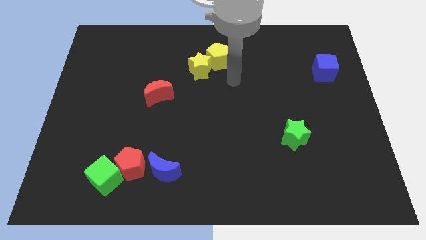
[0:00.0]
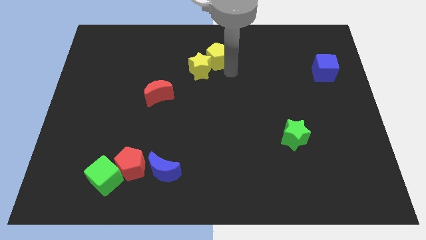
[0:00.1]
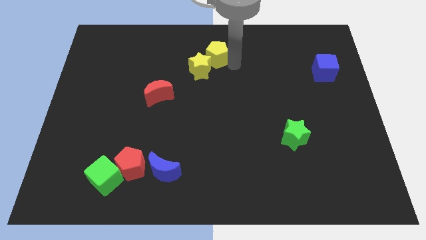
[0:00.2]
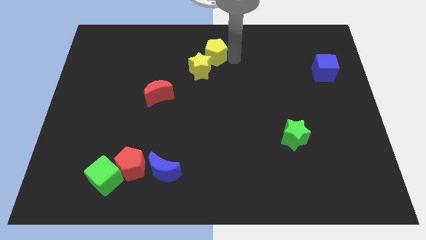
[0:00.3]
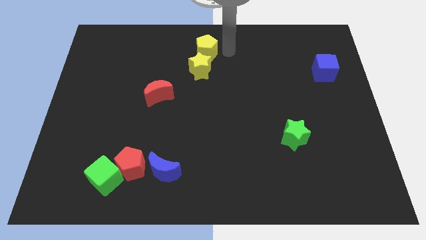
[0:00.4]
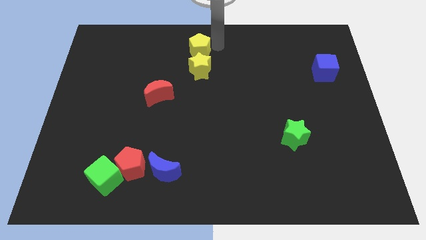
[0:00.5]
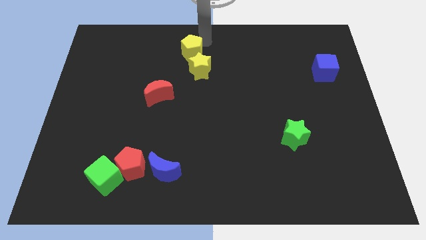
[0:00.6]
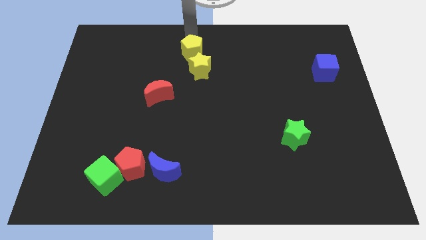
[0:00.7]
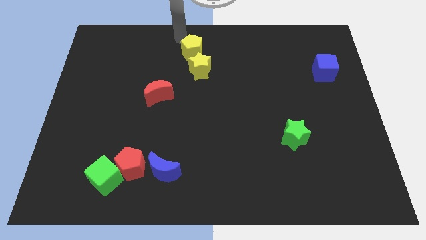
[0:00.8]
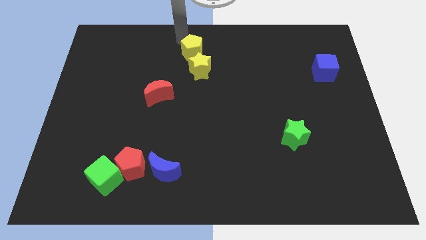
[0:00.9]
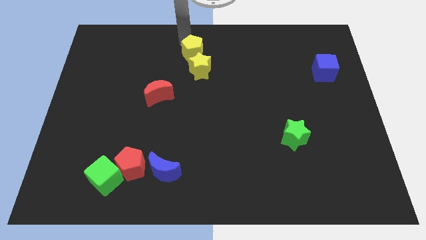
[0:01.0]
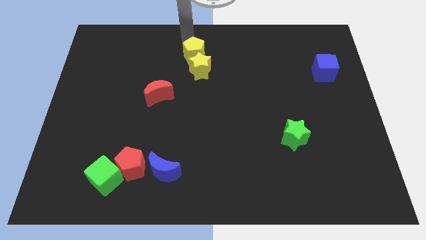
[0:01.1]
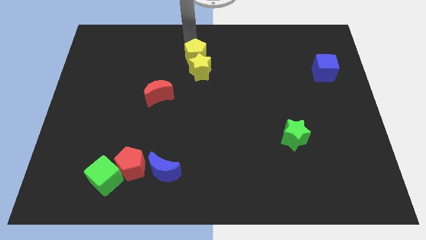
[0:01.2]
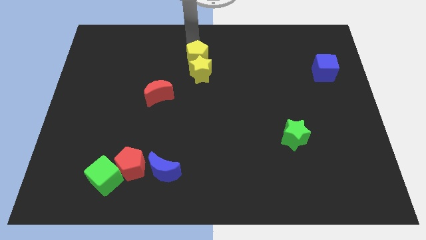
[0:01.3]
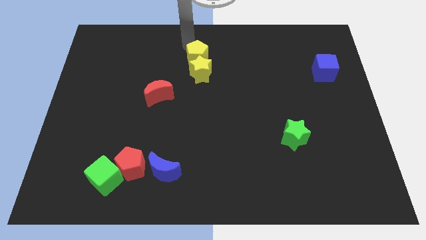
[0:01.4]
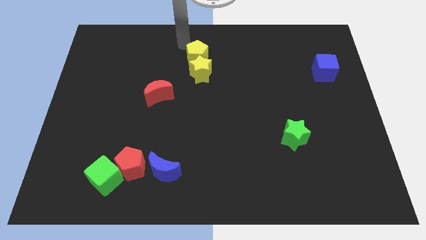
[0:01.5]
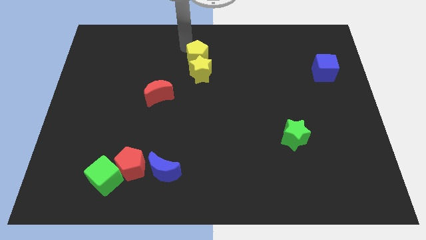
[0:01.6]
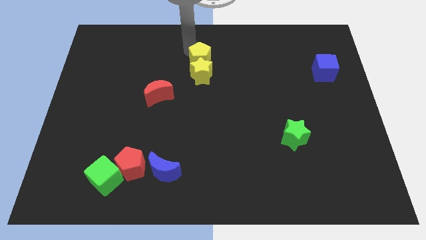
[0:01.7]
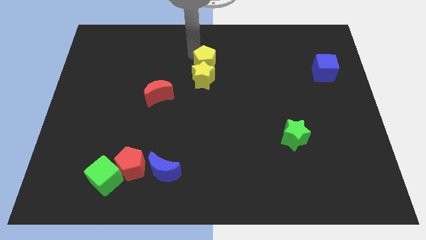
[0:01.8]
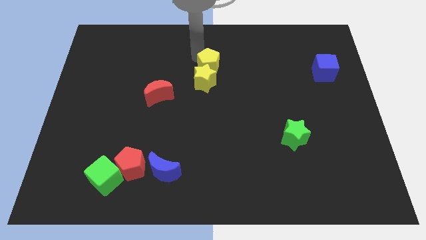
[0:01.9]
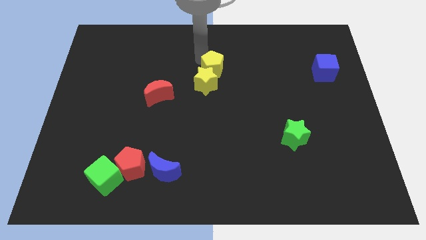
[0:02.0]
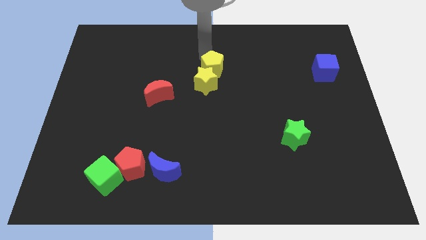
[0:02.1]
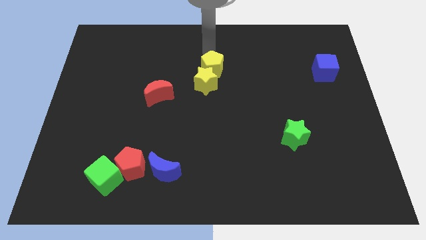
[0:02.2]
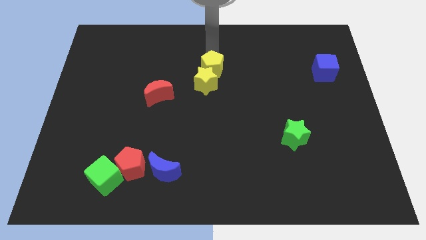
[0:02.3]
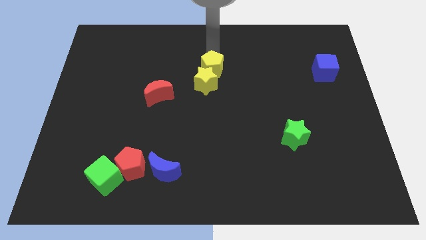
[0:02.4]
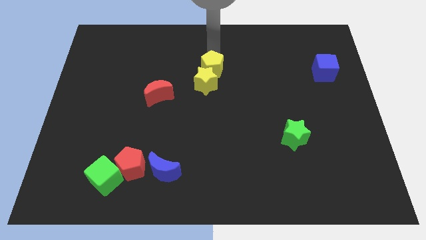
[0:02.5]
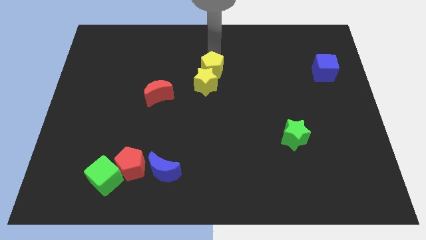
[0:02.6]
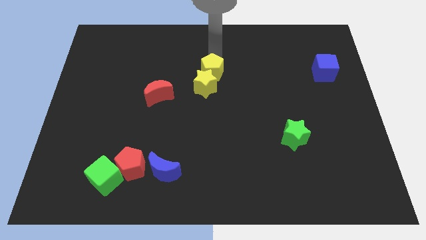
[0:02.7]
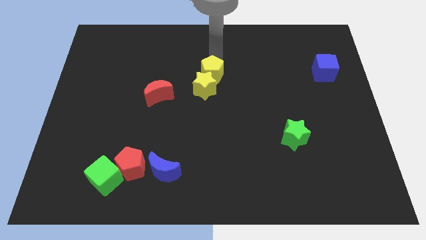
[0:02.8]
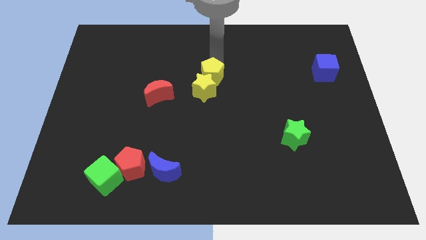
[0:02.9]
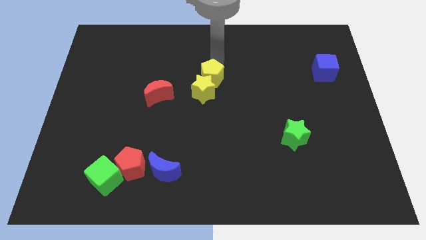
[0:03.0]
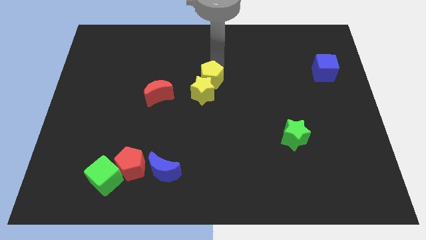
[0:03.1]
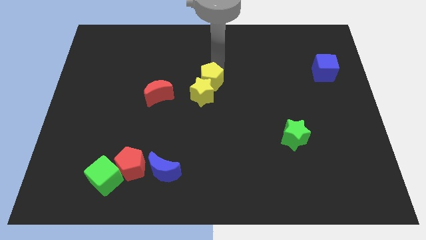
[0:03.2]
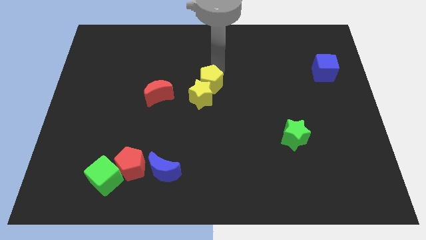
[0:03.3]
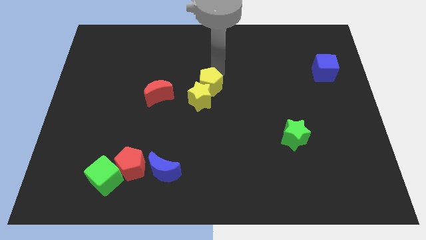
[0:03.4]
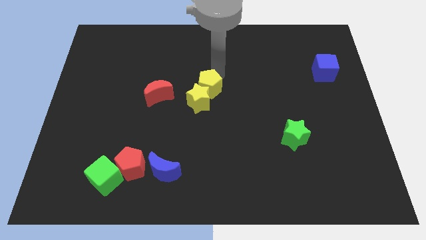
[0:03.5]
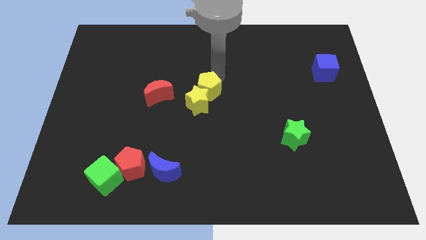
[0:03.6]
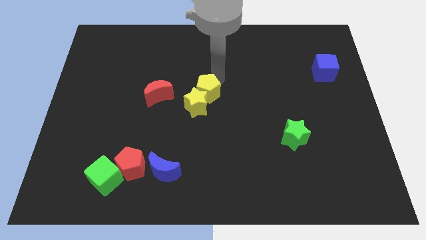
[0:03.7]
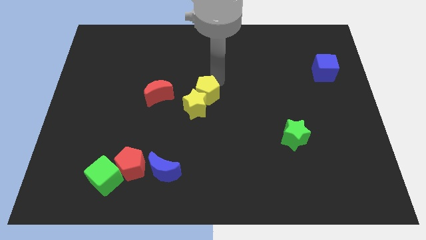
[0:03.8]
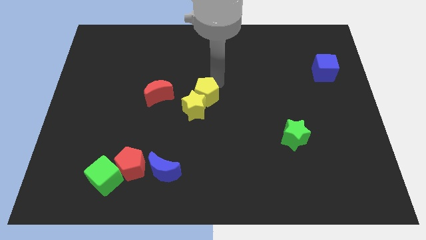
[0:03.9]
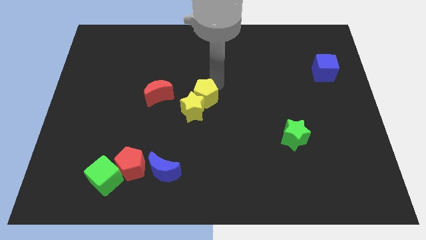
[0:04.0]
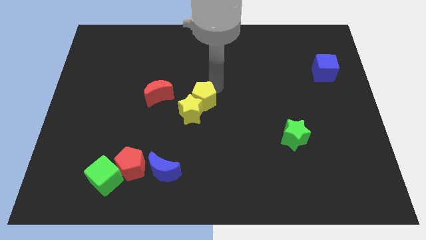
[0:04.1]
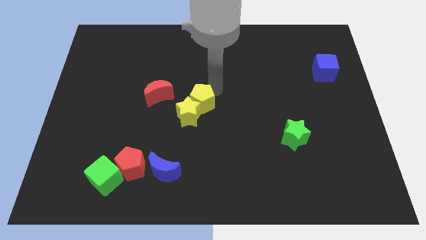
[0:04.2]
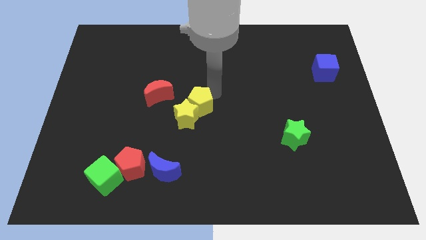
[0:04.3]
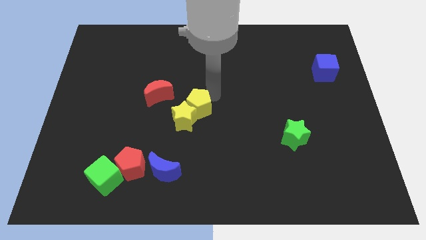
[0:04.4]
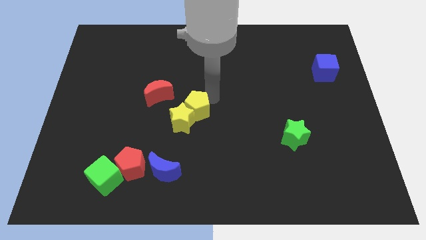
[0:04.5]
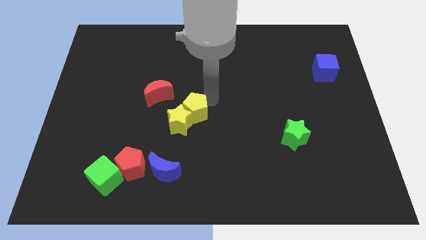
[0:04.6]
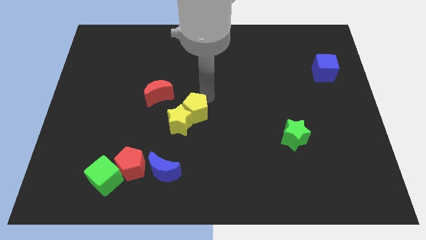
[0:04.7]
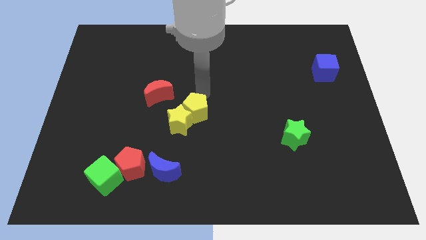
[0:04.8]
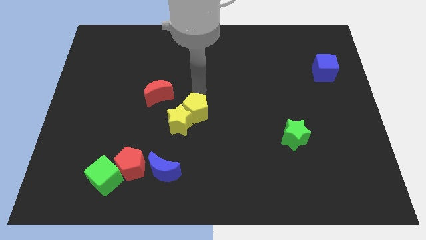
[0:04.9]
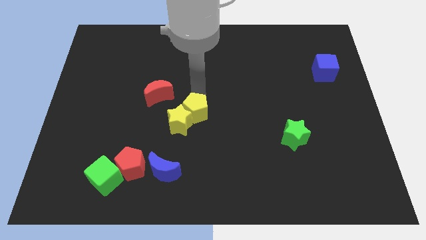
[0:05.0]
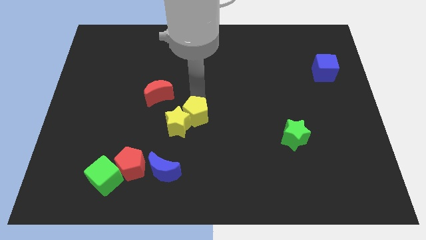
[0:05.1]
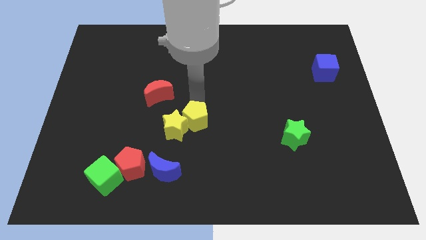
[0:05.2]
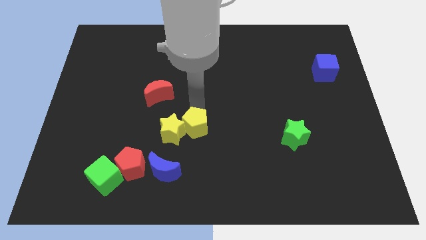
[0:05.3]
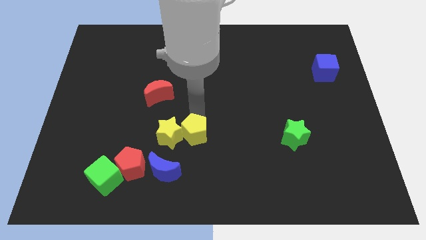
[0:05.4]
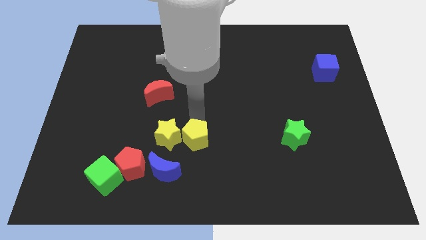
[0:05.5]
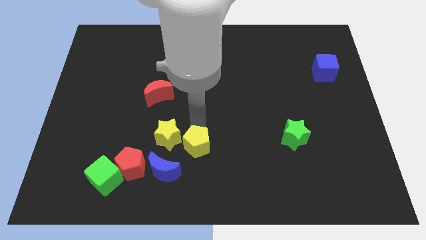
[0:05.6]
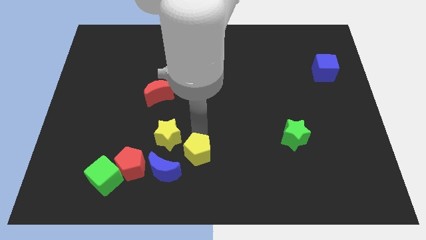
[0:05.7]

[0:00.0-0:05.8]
put the yellow pentagon right of the red pentagon

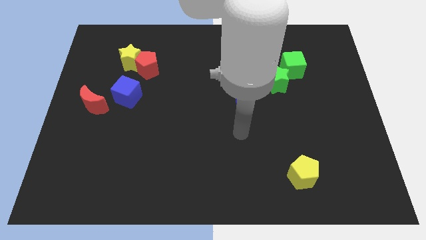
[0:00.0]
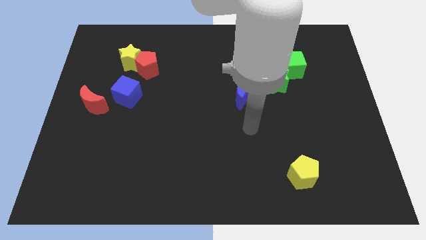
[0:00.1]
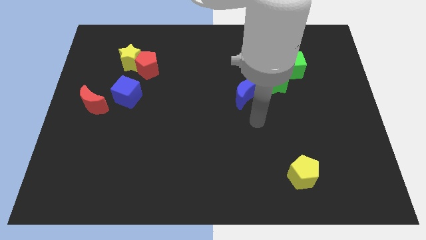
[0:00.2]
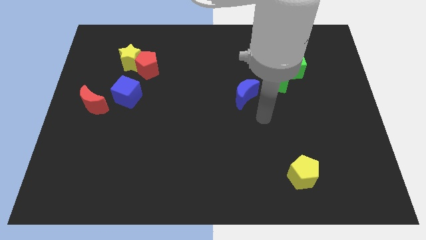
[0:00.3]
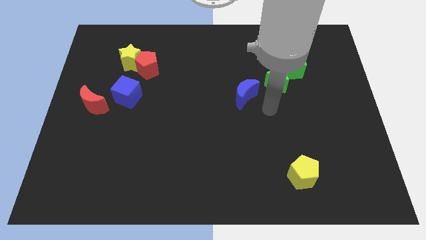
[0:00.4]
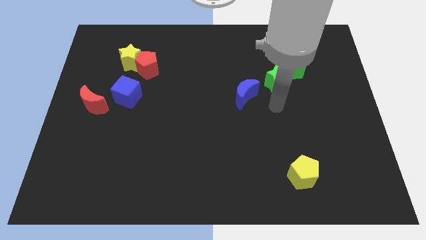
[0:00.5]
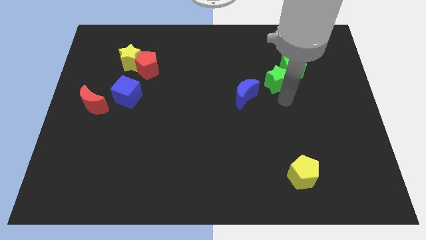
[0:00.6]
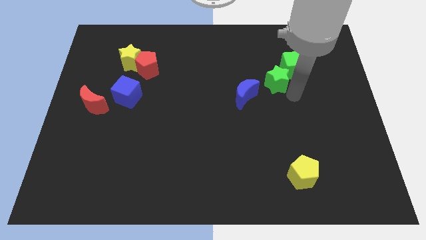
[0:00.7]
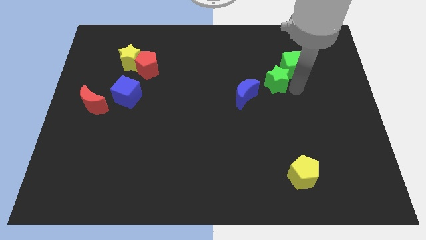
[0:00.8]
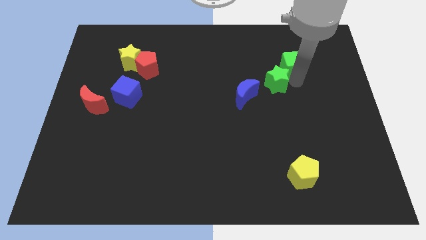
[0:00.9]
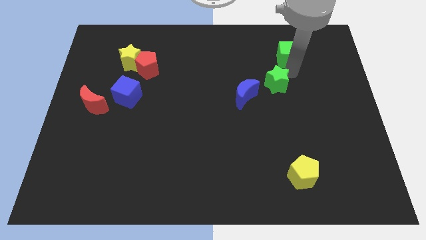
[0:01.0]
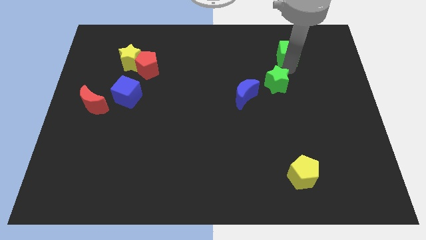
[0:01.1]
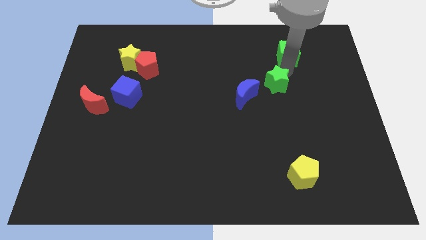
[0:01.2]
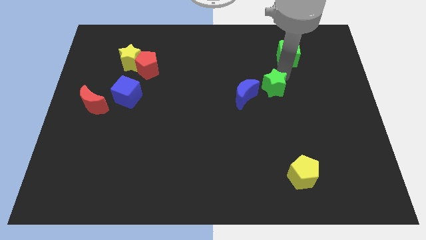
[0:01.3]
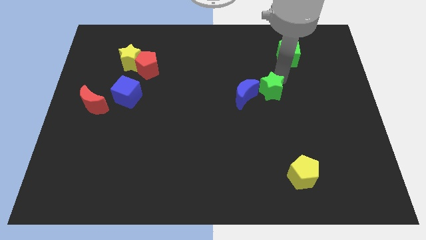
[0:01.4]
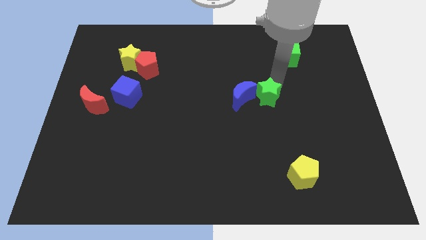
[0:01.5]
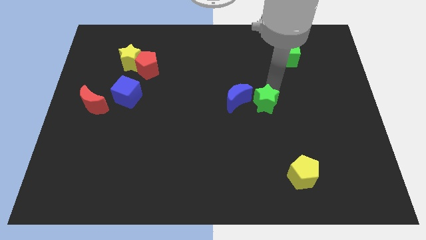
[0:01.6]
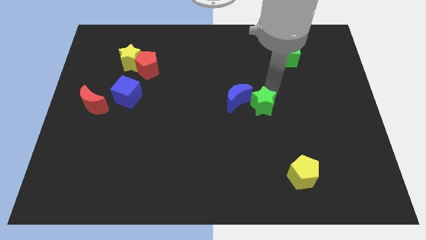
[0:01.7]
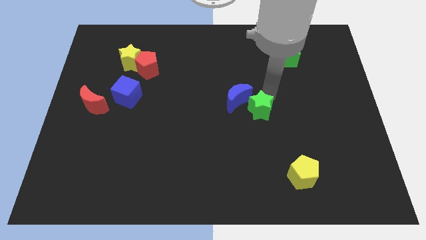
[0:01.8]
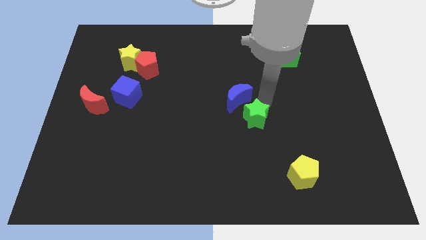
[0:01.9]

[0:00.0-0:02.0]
put the green star below the blue moon
